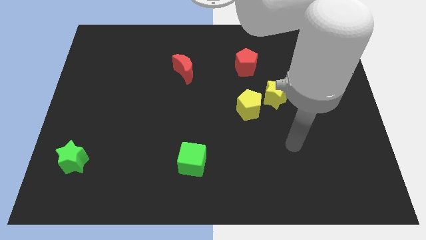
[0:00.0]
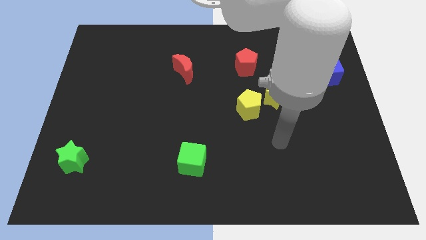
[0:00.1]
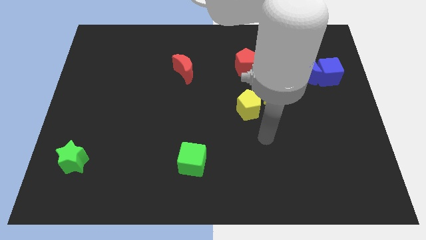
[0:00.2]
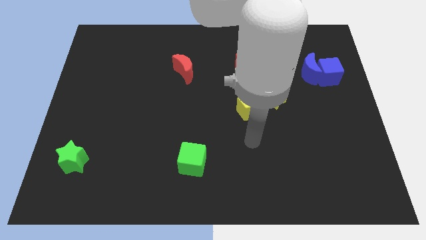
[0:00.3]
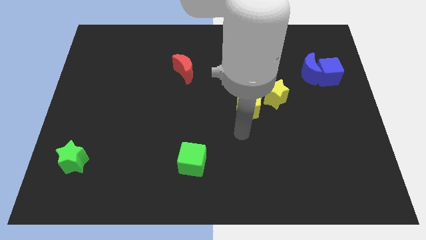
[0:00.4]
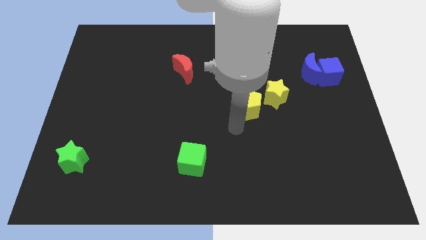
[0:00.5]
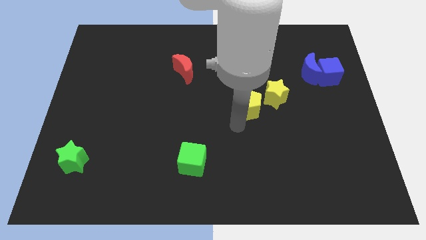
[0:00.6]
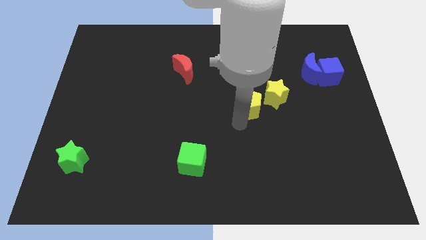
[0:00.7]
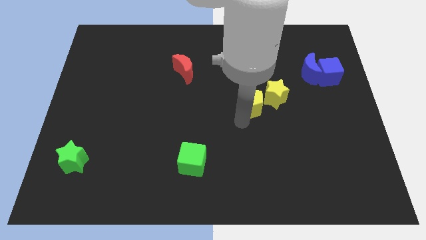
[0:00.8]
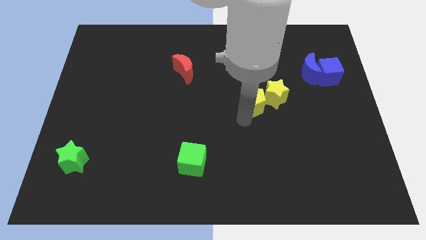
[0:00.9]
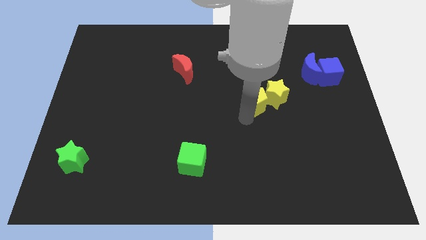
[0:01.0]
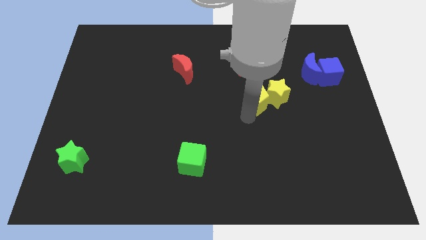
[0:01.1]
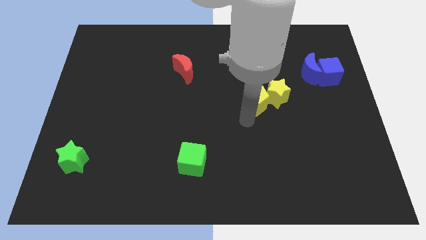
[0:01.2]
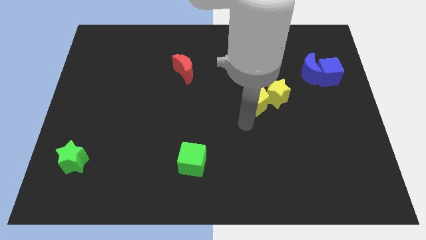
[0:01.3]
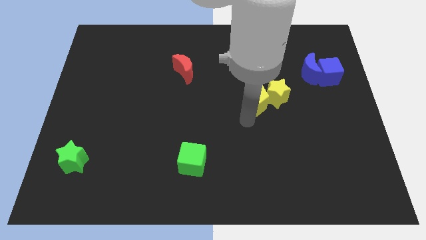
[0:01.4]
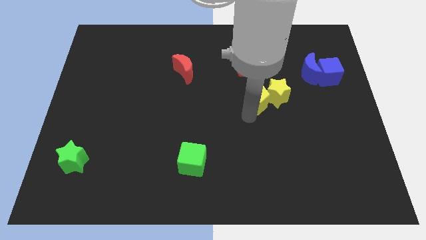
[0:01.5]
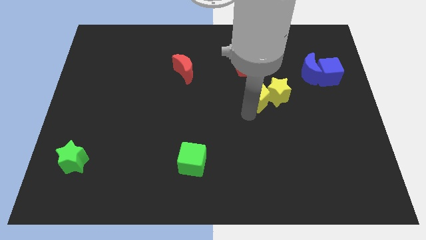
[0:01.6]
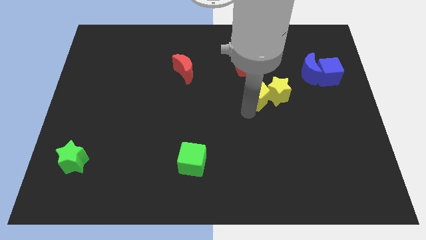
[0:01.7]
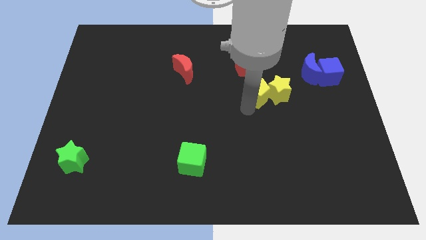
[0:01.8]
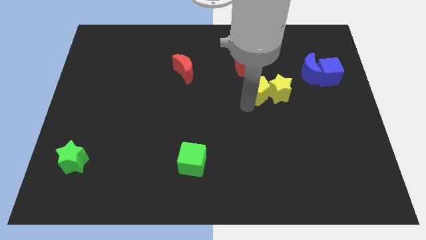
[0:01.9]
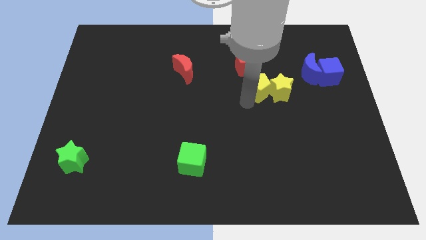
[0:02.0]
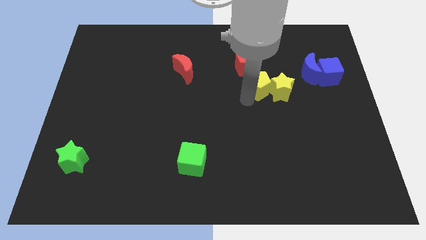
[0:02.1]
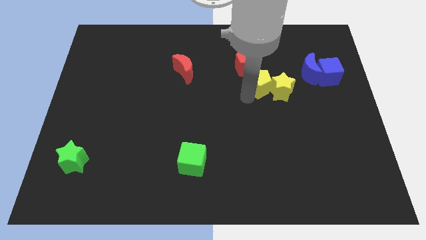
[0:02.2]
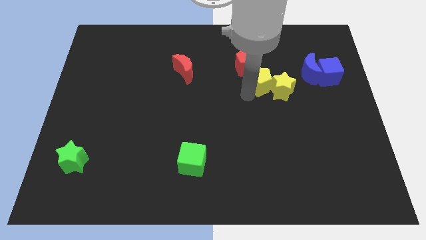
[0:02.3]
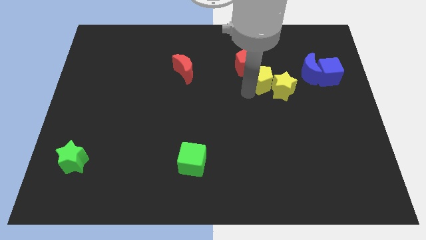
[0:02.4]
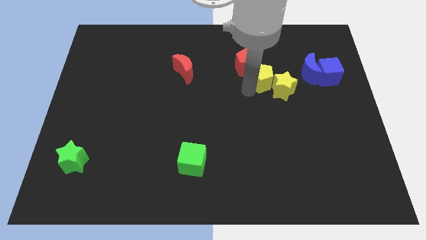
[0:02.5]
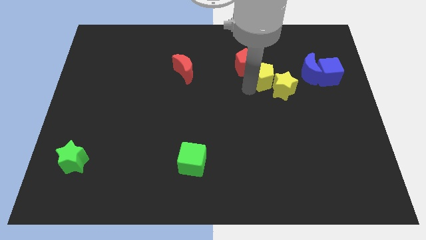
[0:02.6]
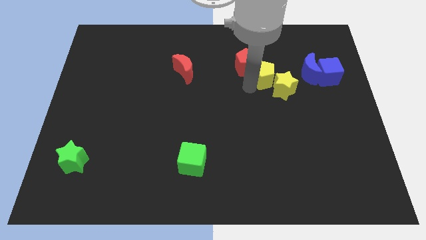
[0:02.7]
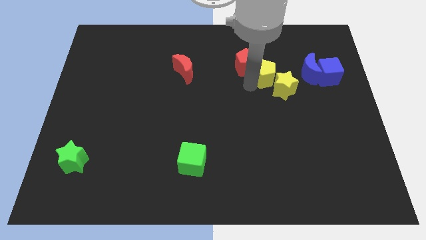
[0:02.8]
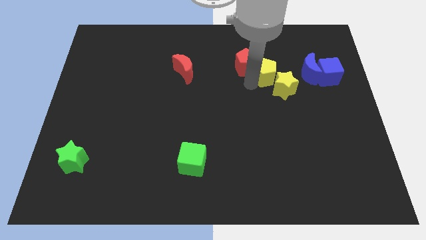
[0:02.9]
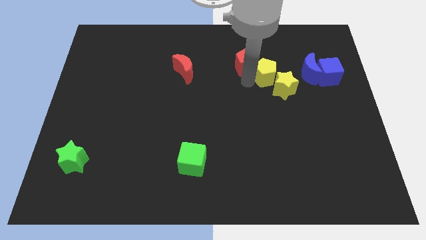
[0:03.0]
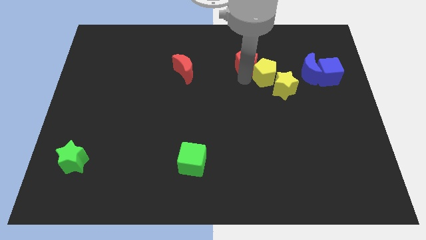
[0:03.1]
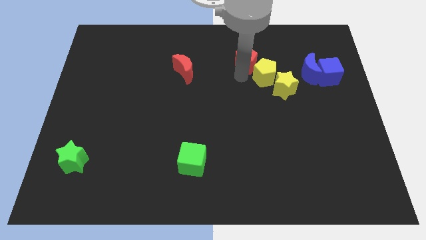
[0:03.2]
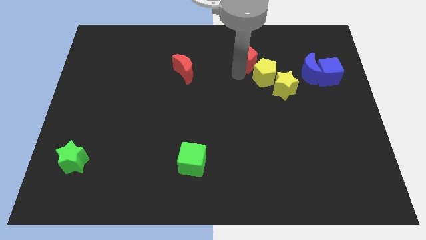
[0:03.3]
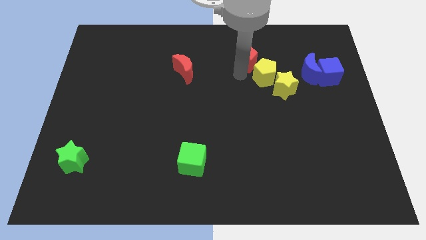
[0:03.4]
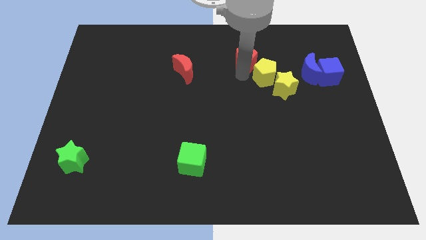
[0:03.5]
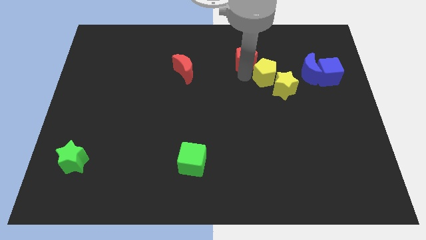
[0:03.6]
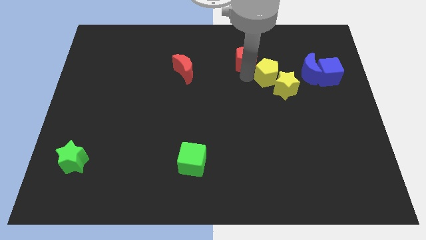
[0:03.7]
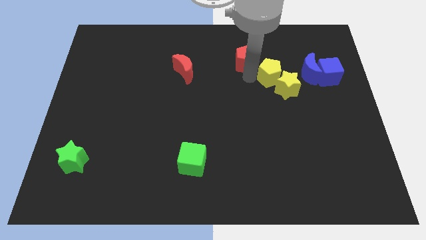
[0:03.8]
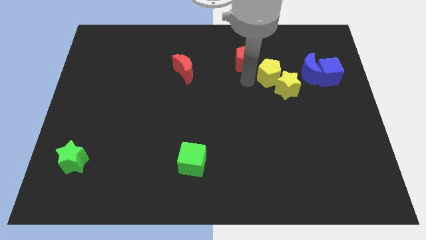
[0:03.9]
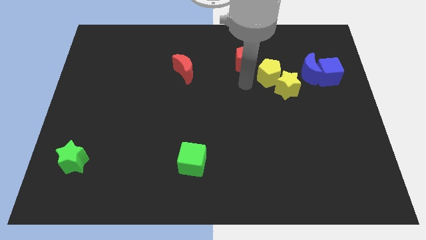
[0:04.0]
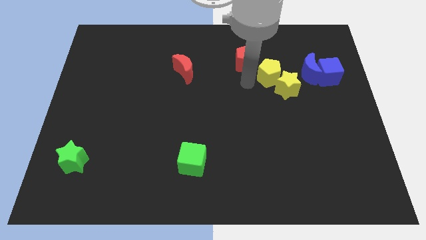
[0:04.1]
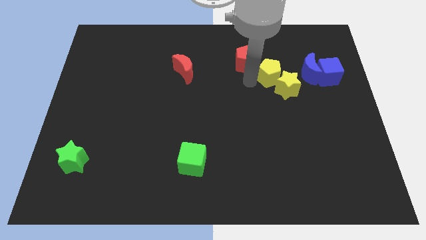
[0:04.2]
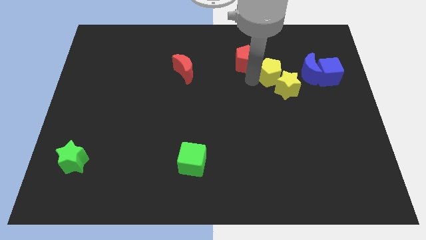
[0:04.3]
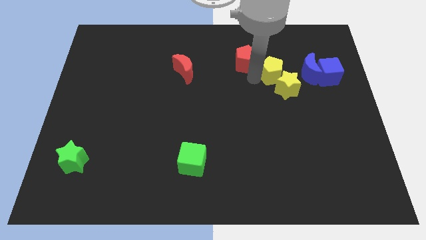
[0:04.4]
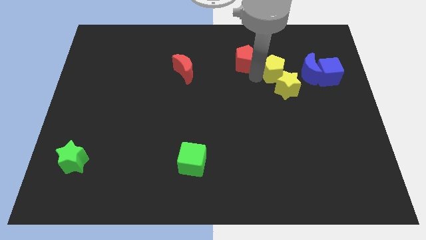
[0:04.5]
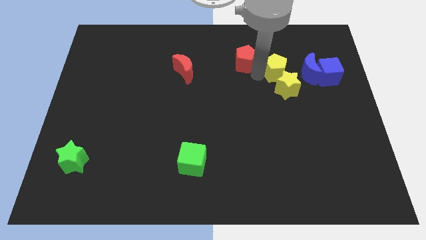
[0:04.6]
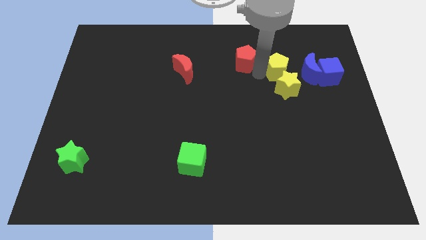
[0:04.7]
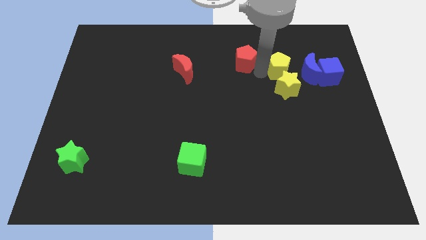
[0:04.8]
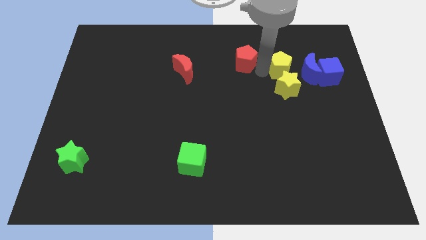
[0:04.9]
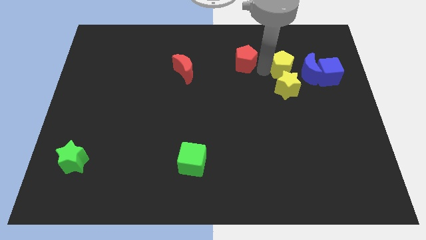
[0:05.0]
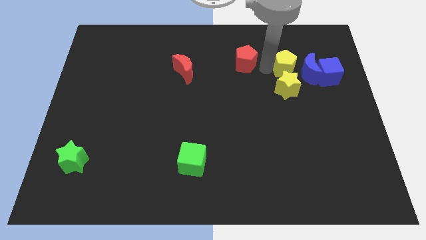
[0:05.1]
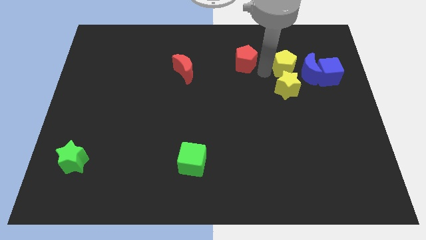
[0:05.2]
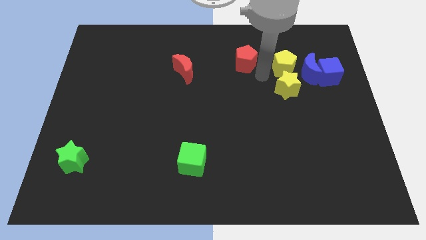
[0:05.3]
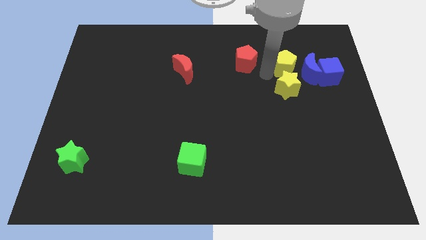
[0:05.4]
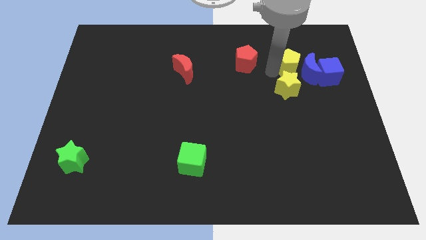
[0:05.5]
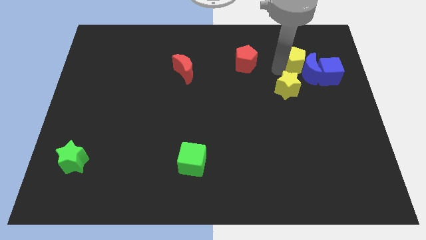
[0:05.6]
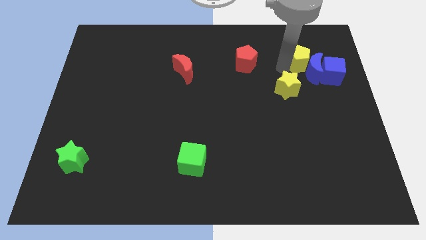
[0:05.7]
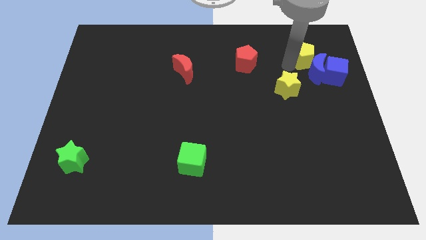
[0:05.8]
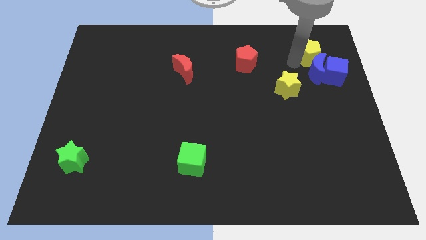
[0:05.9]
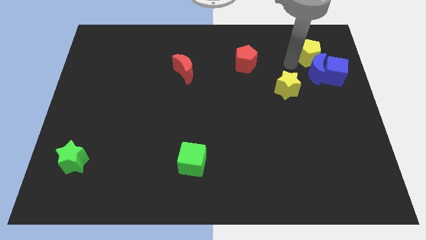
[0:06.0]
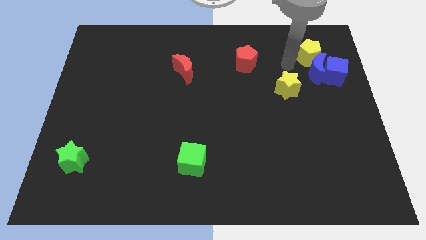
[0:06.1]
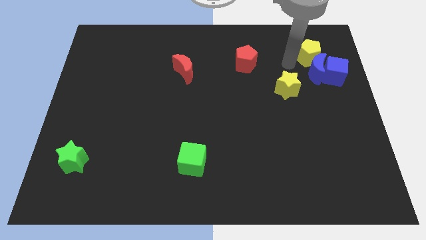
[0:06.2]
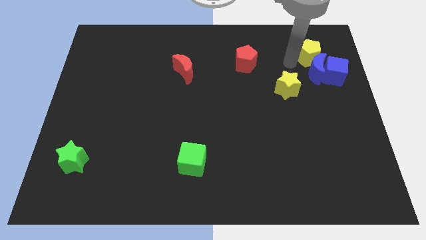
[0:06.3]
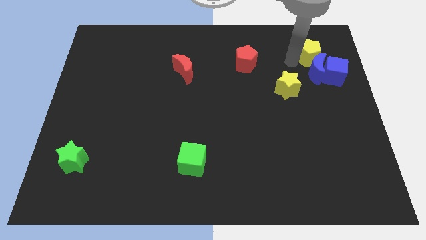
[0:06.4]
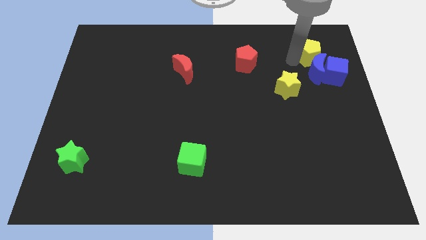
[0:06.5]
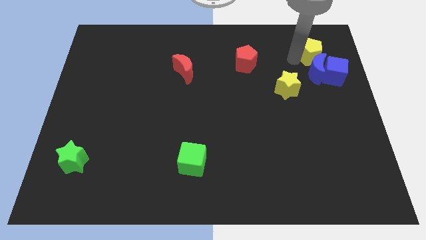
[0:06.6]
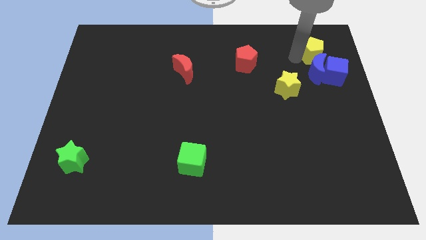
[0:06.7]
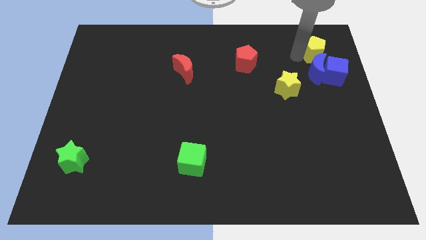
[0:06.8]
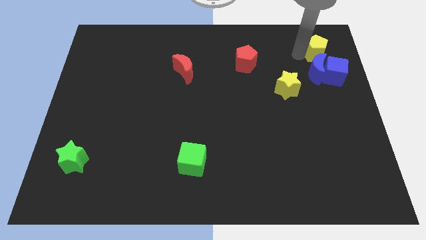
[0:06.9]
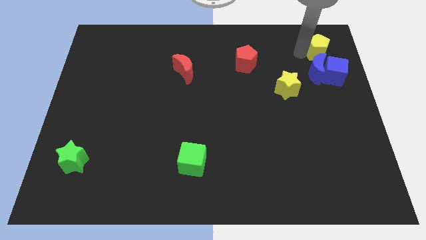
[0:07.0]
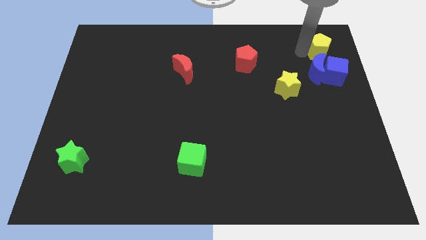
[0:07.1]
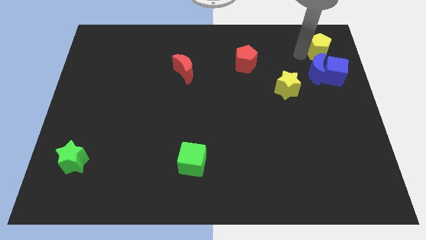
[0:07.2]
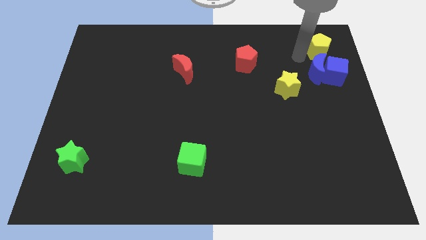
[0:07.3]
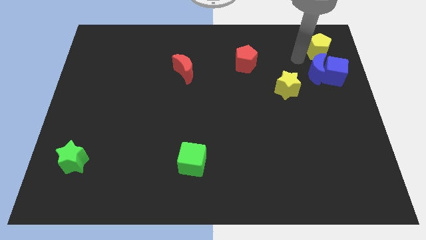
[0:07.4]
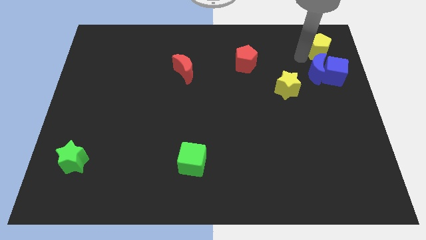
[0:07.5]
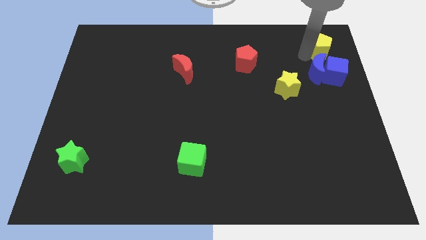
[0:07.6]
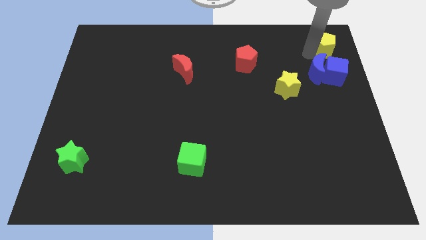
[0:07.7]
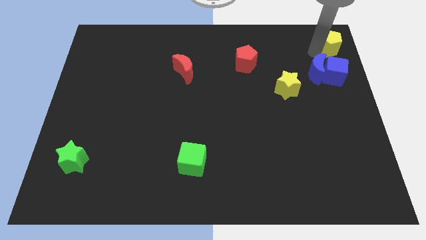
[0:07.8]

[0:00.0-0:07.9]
move the yellow pentagon to the top right corner
